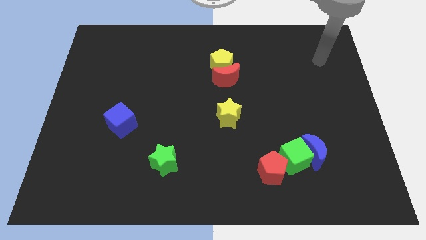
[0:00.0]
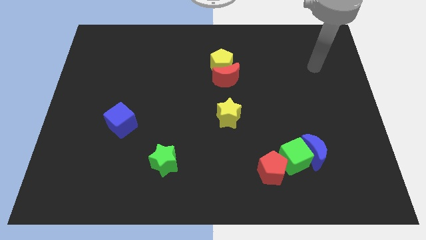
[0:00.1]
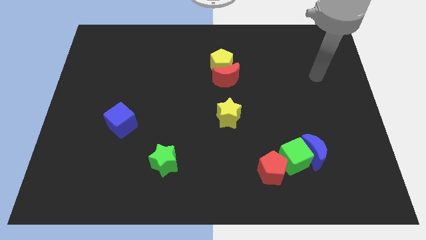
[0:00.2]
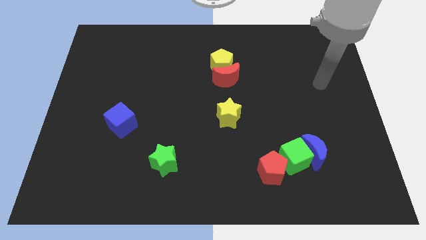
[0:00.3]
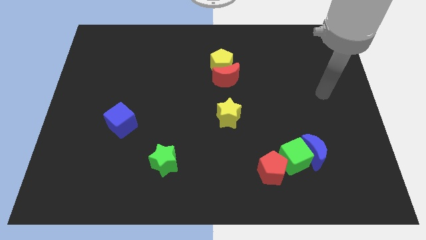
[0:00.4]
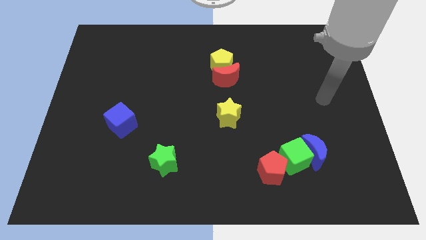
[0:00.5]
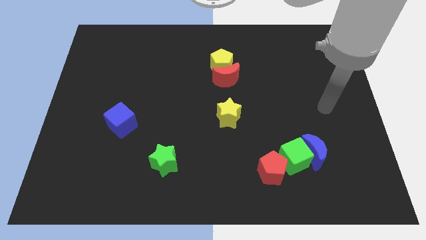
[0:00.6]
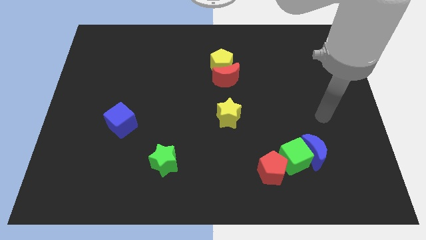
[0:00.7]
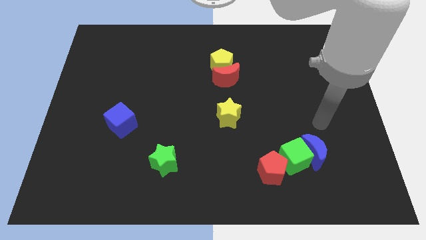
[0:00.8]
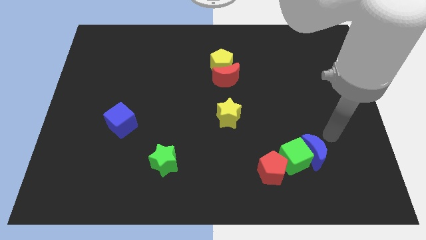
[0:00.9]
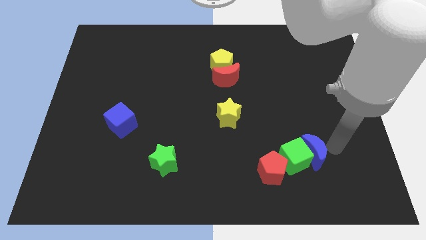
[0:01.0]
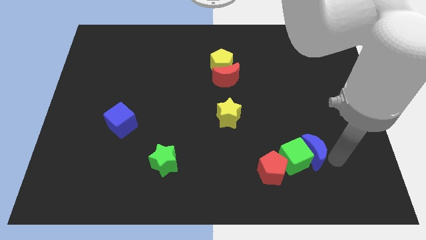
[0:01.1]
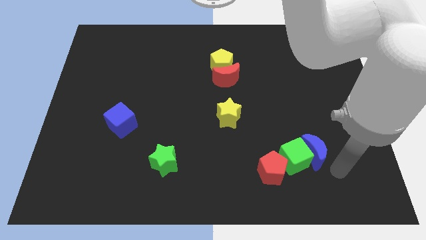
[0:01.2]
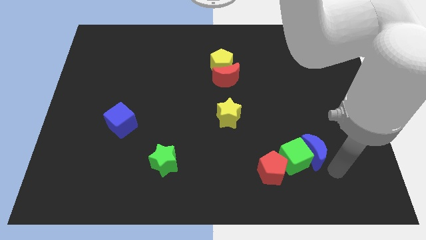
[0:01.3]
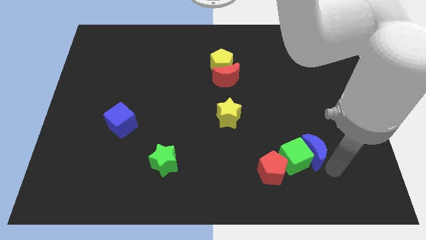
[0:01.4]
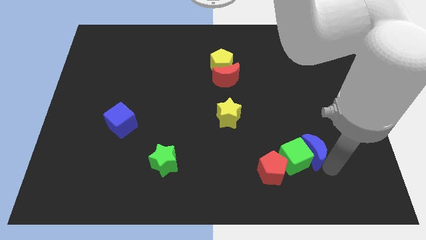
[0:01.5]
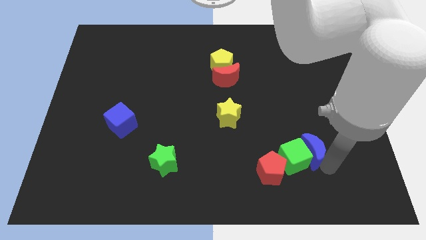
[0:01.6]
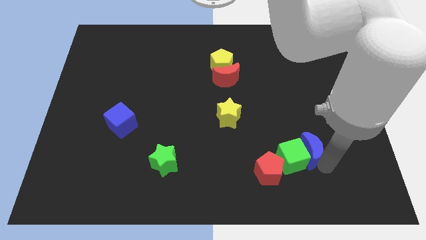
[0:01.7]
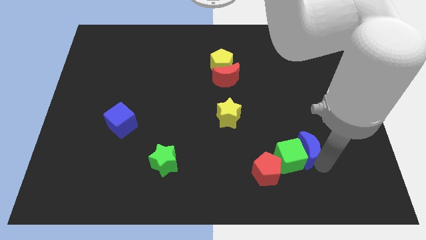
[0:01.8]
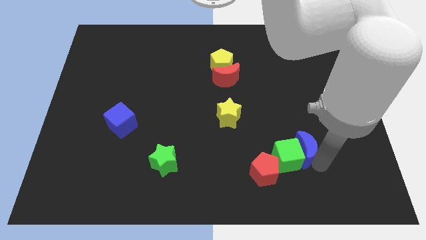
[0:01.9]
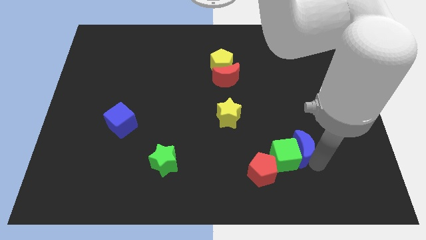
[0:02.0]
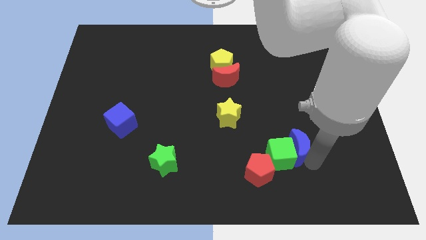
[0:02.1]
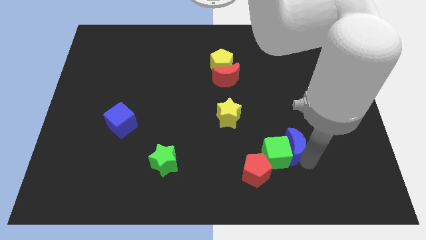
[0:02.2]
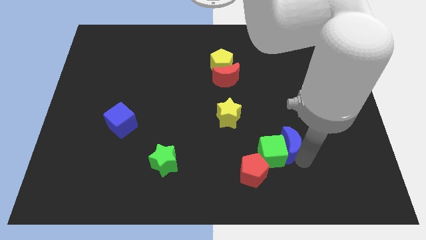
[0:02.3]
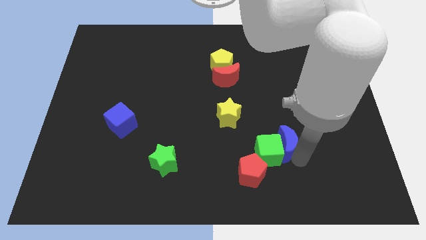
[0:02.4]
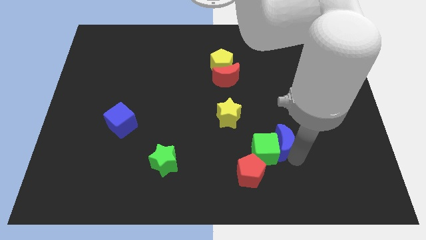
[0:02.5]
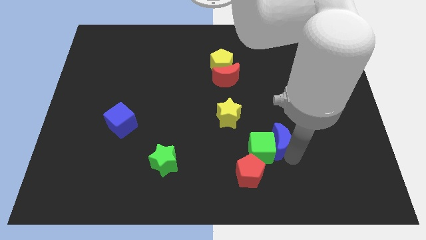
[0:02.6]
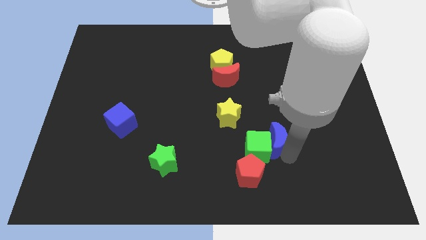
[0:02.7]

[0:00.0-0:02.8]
slightly move the blue moon upwards and then to the left

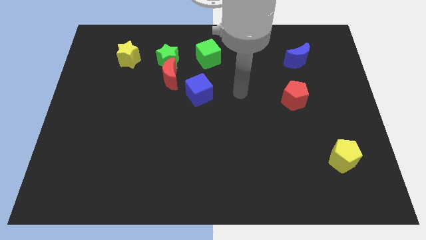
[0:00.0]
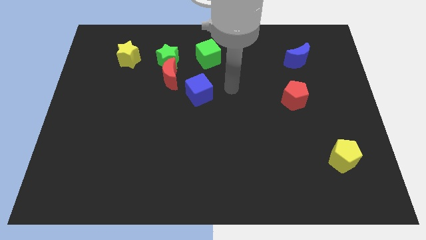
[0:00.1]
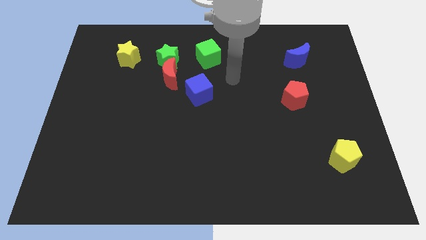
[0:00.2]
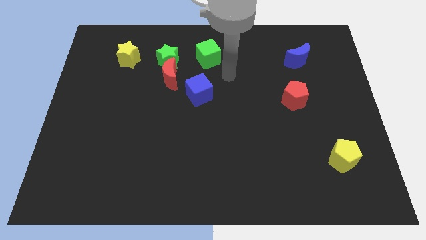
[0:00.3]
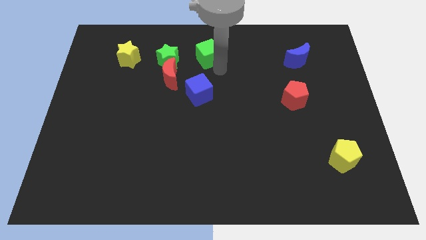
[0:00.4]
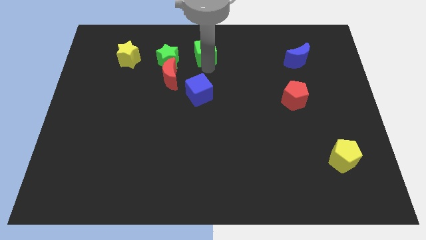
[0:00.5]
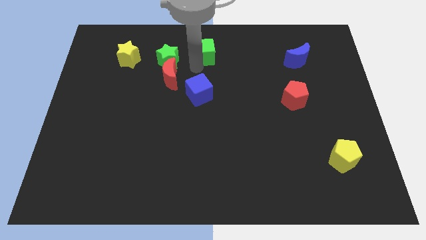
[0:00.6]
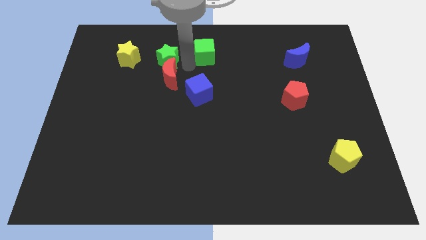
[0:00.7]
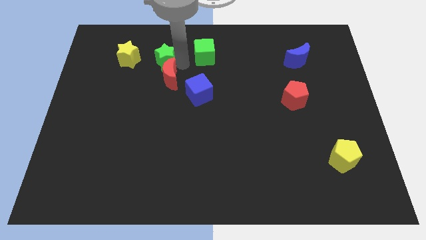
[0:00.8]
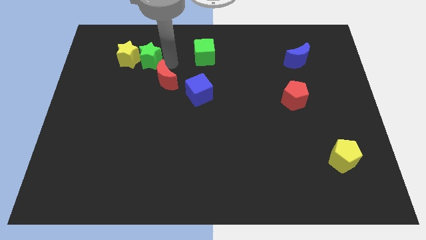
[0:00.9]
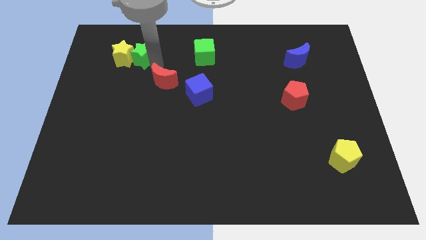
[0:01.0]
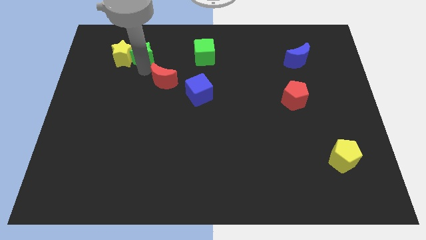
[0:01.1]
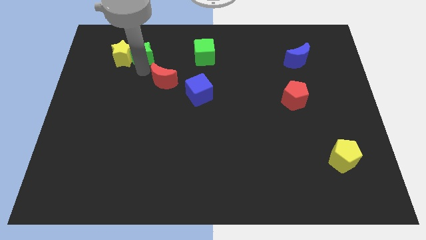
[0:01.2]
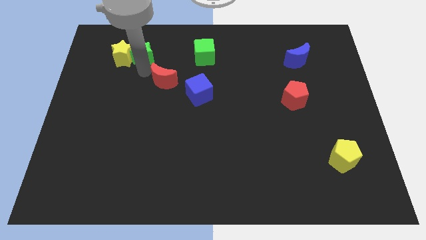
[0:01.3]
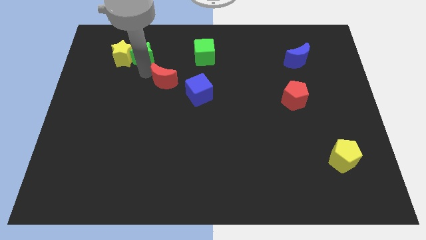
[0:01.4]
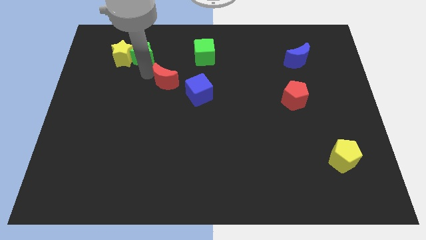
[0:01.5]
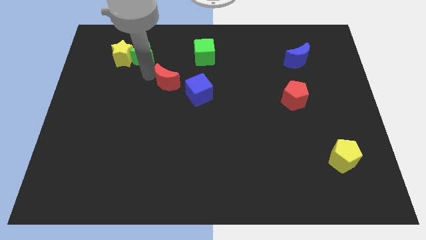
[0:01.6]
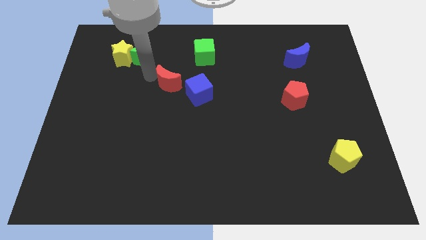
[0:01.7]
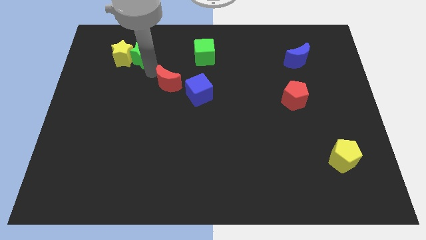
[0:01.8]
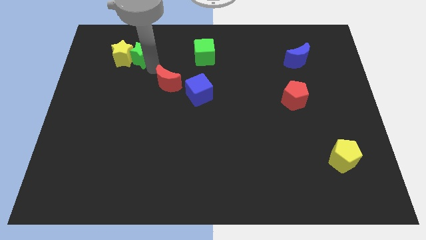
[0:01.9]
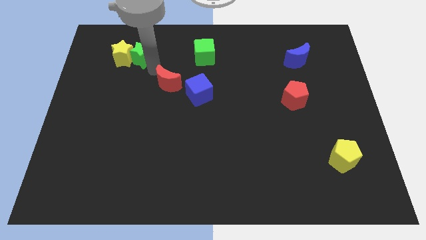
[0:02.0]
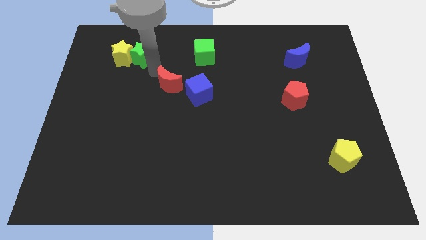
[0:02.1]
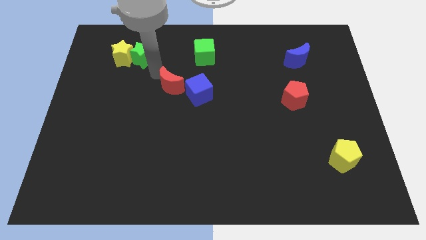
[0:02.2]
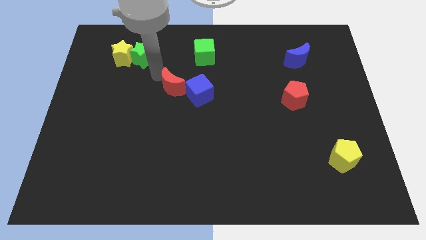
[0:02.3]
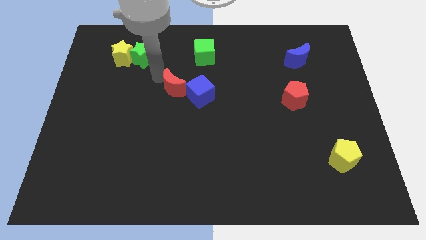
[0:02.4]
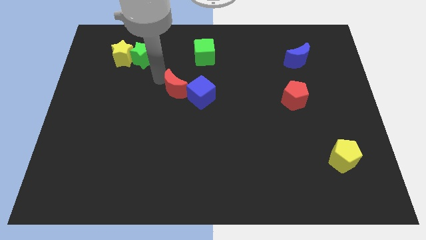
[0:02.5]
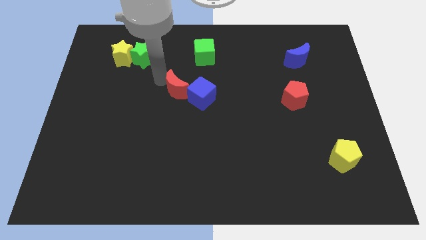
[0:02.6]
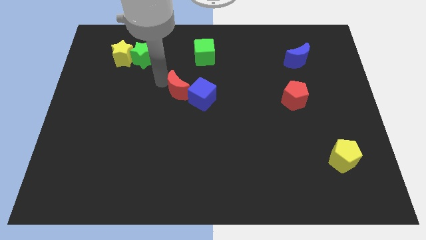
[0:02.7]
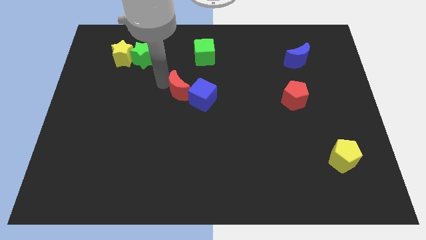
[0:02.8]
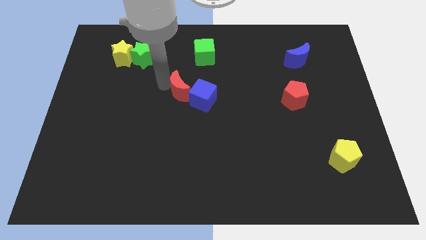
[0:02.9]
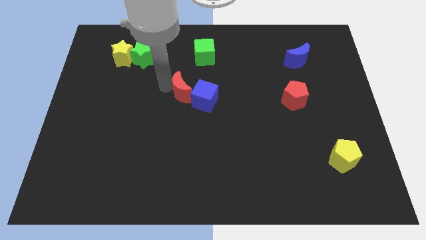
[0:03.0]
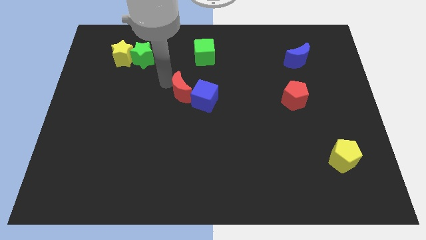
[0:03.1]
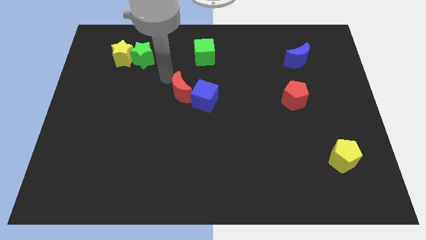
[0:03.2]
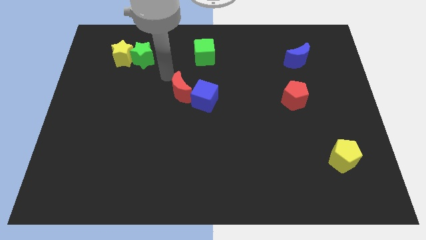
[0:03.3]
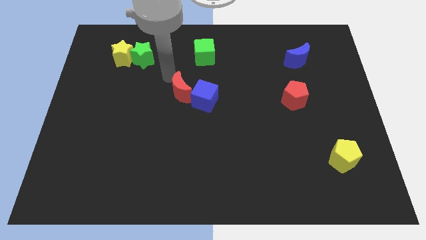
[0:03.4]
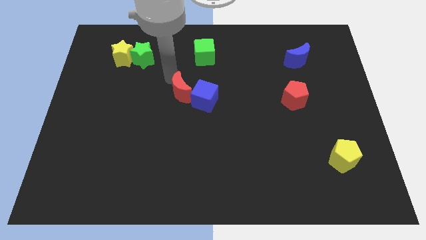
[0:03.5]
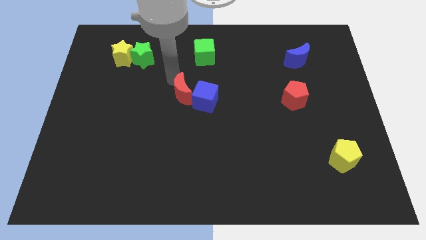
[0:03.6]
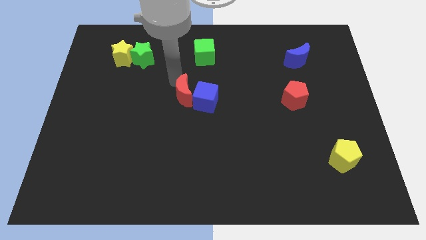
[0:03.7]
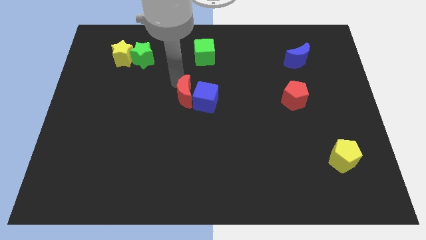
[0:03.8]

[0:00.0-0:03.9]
slightly slide the red moon downwards and to the right diagonally

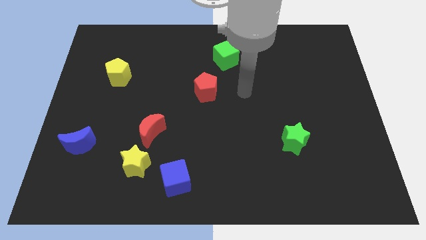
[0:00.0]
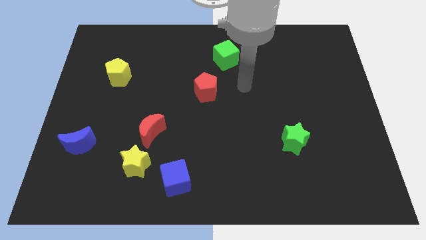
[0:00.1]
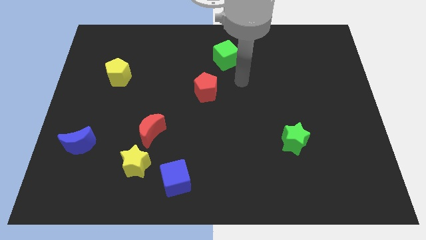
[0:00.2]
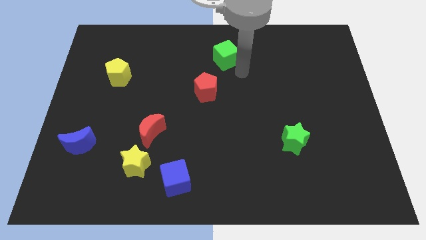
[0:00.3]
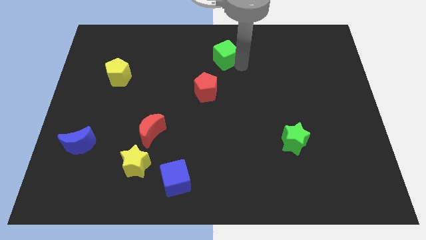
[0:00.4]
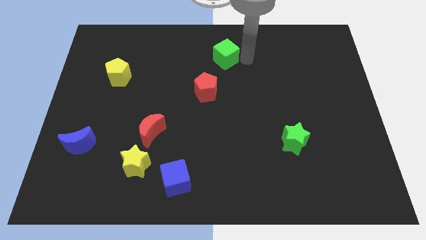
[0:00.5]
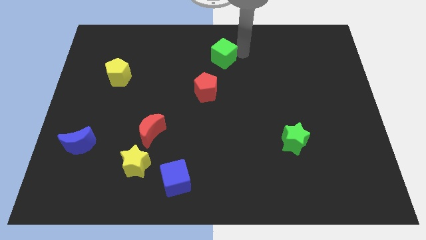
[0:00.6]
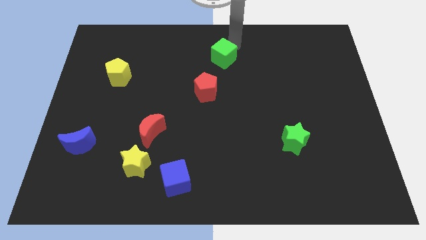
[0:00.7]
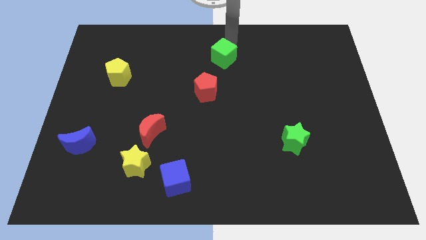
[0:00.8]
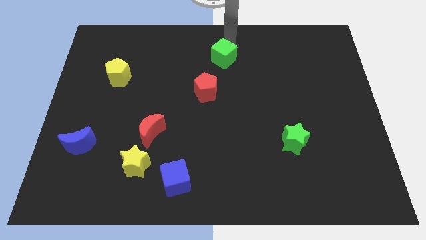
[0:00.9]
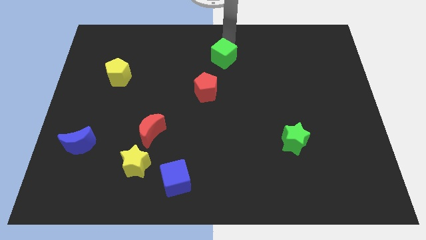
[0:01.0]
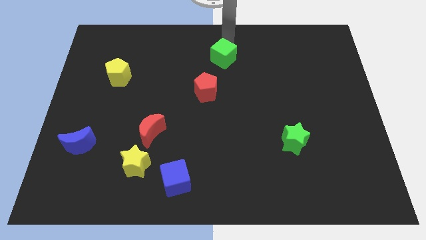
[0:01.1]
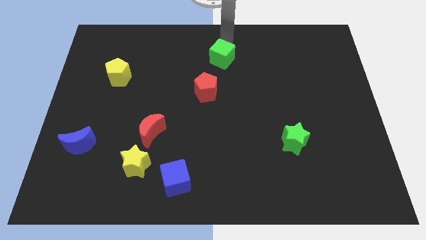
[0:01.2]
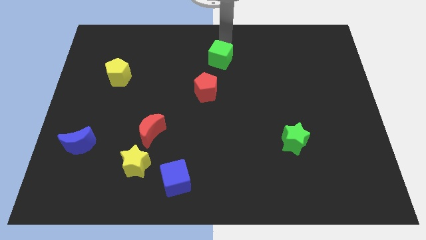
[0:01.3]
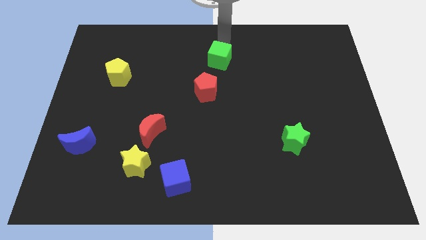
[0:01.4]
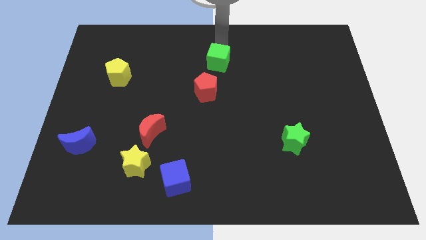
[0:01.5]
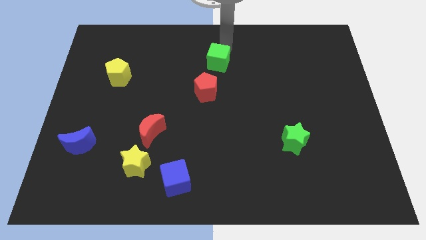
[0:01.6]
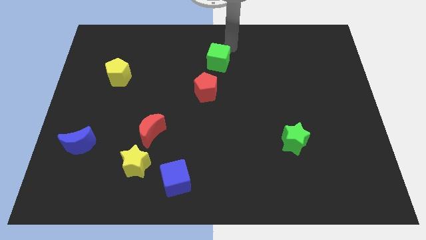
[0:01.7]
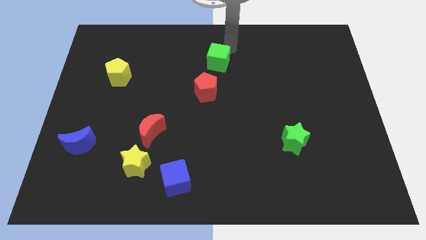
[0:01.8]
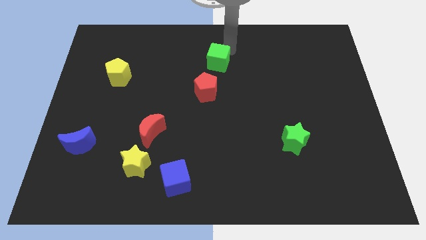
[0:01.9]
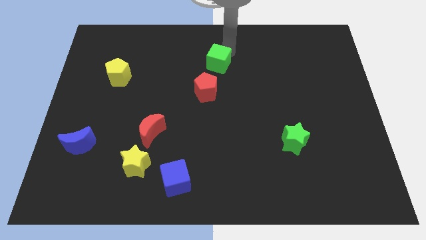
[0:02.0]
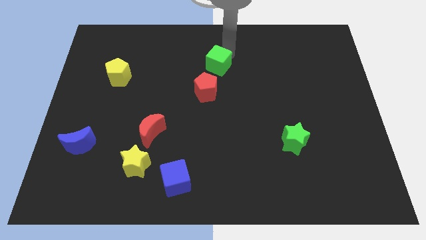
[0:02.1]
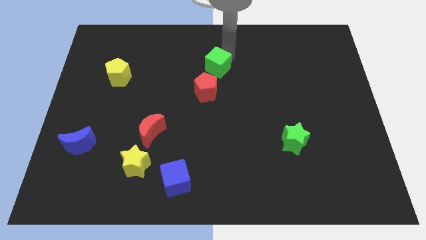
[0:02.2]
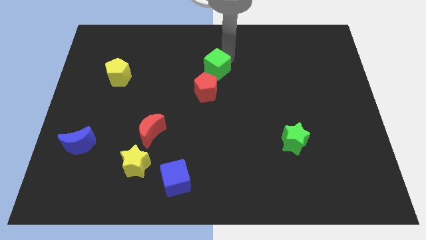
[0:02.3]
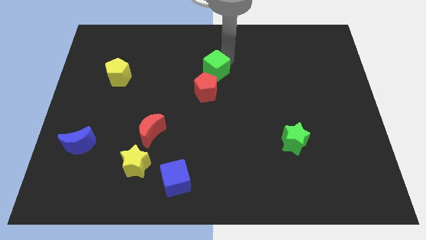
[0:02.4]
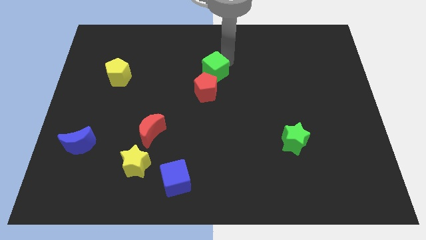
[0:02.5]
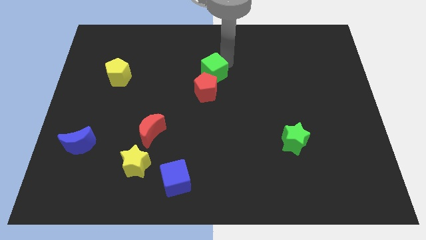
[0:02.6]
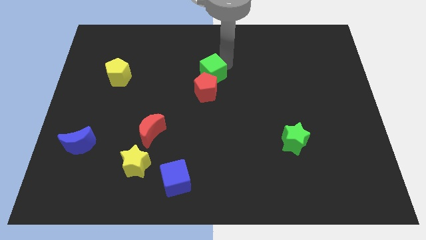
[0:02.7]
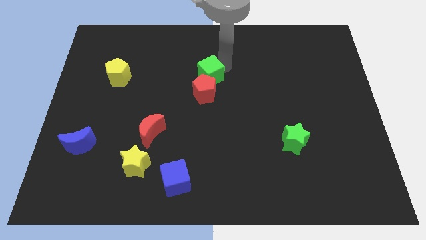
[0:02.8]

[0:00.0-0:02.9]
push the green cube down and then left slightly
